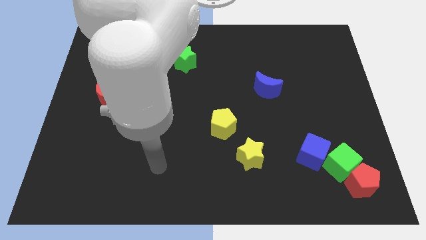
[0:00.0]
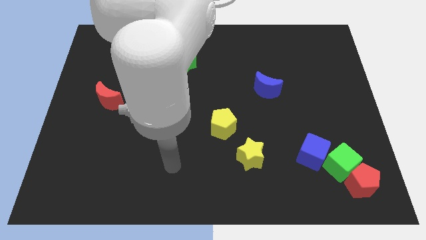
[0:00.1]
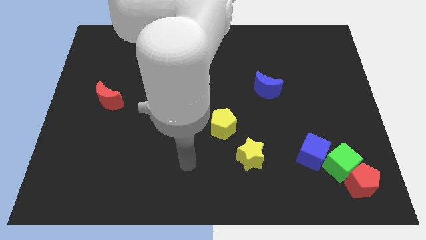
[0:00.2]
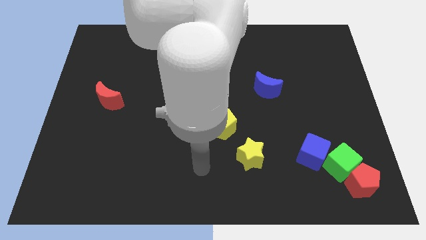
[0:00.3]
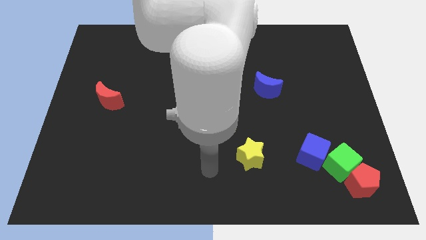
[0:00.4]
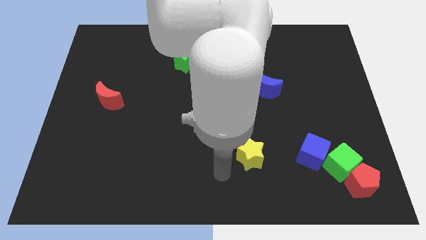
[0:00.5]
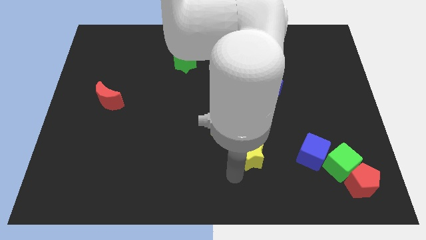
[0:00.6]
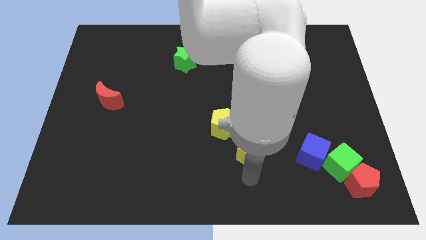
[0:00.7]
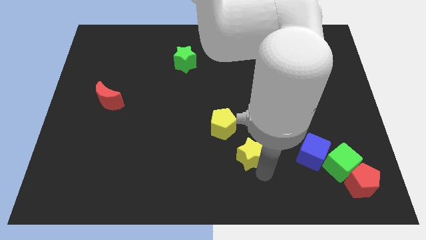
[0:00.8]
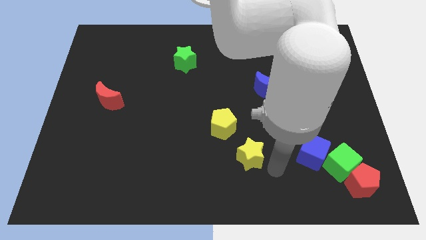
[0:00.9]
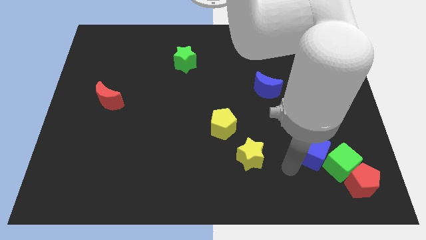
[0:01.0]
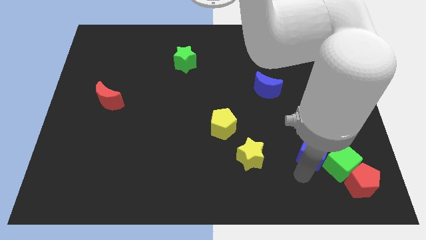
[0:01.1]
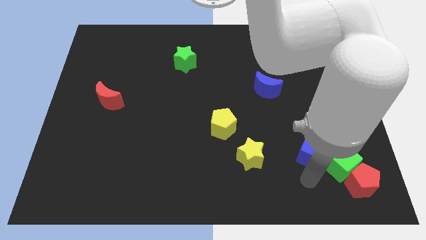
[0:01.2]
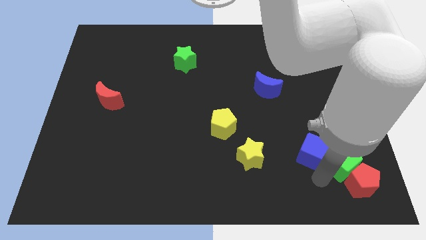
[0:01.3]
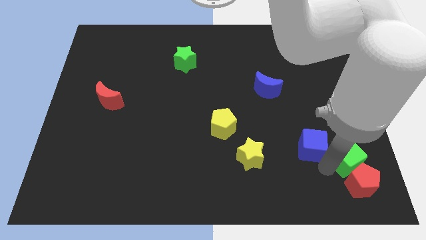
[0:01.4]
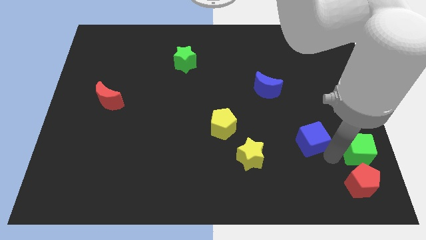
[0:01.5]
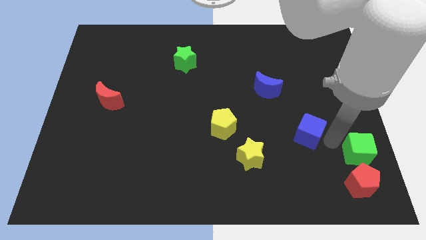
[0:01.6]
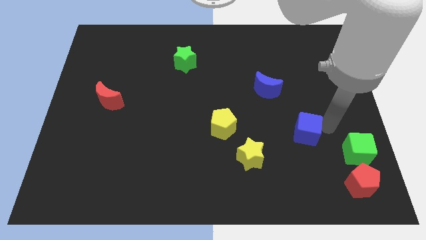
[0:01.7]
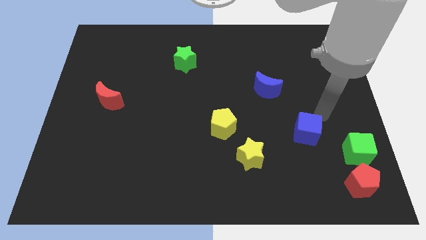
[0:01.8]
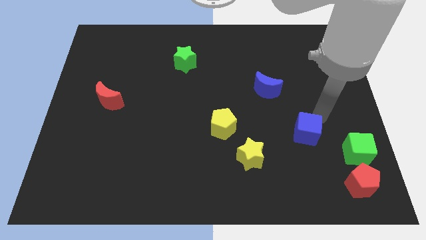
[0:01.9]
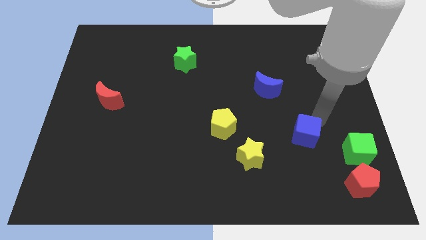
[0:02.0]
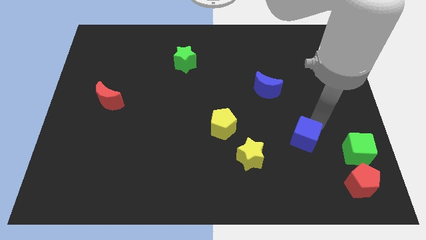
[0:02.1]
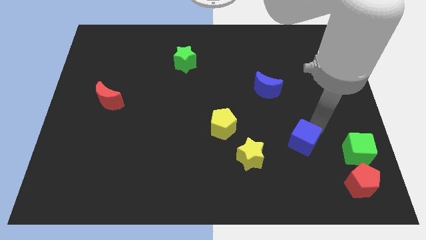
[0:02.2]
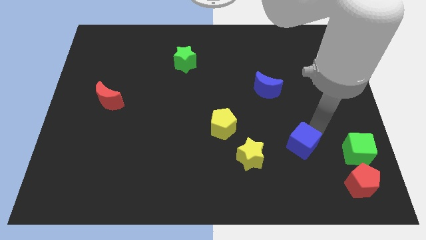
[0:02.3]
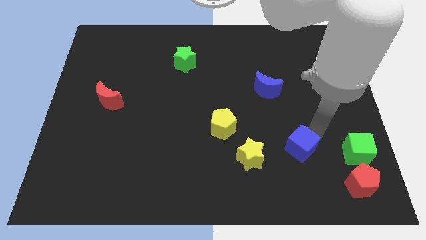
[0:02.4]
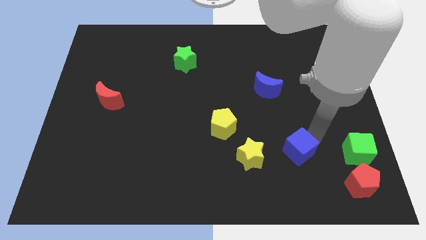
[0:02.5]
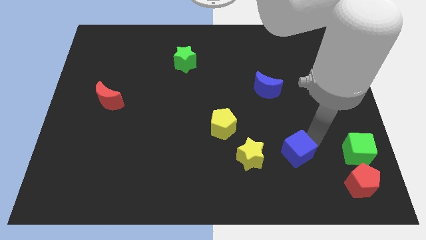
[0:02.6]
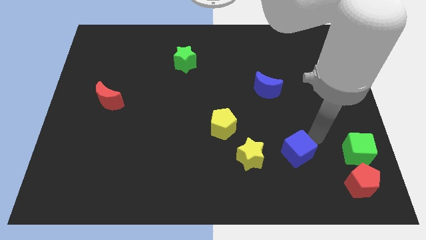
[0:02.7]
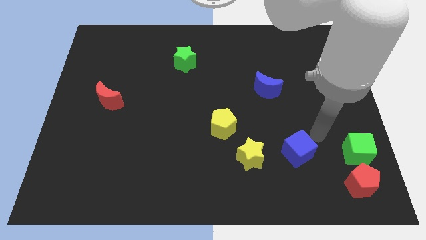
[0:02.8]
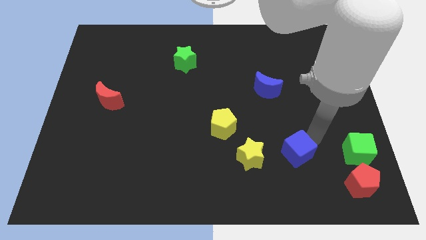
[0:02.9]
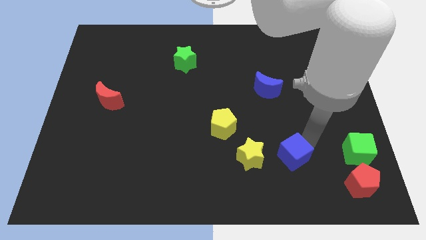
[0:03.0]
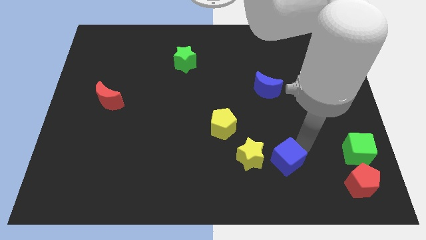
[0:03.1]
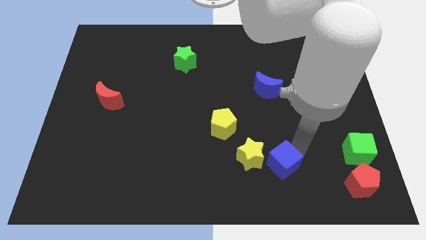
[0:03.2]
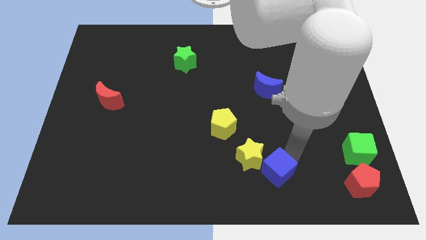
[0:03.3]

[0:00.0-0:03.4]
slide the blue cube left slightly

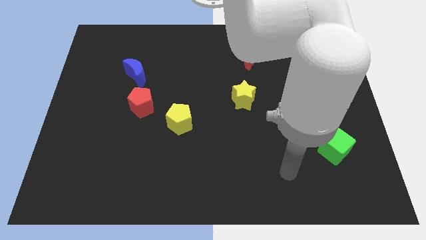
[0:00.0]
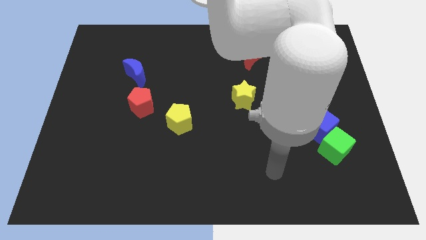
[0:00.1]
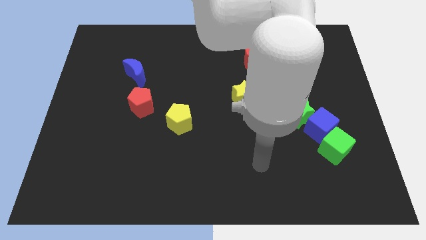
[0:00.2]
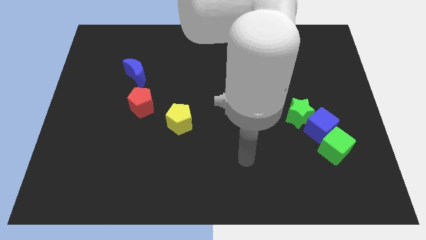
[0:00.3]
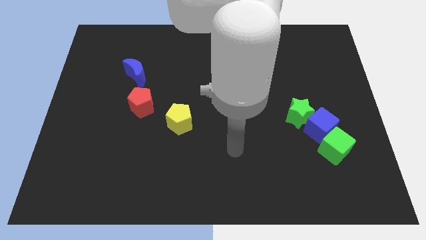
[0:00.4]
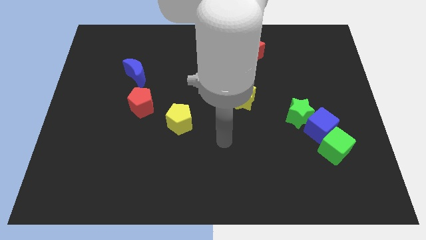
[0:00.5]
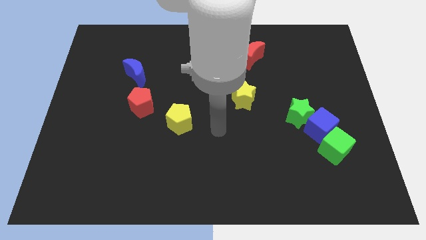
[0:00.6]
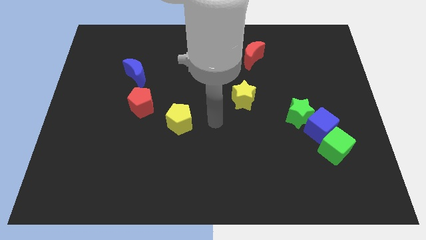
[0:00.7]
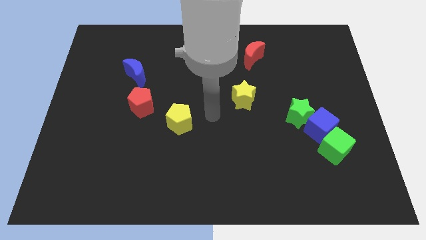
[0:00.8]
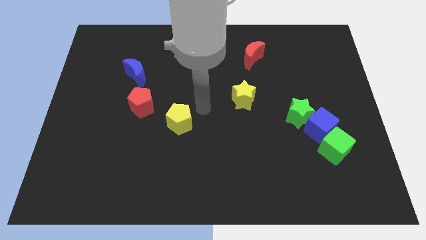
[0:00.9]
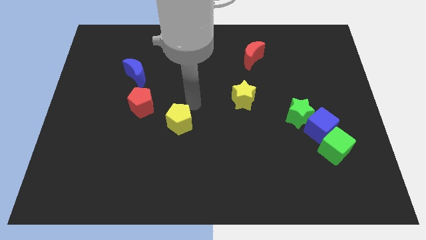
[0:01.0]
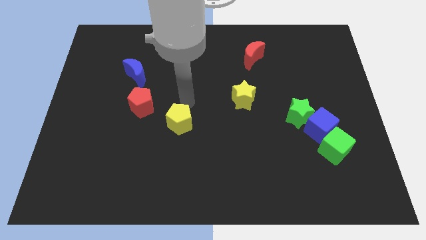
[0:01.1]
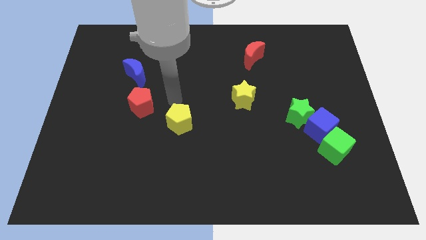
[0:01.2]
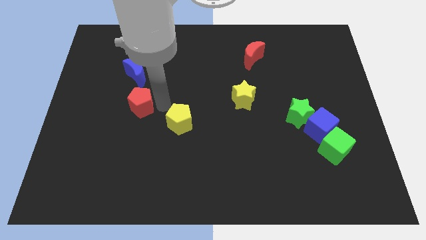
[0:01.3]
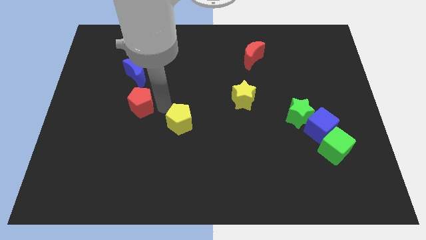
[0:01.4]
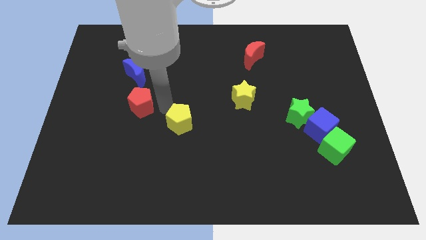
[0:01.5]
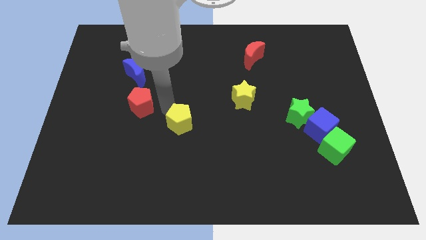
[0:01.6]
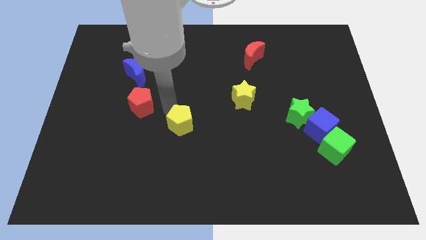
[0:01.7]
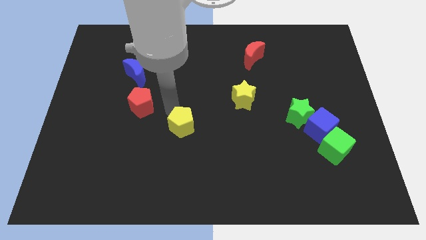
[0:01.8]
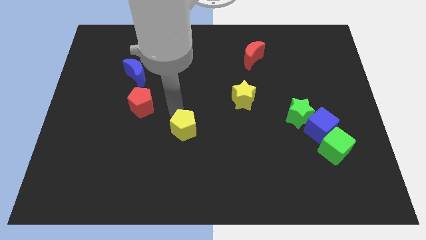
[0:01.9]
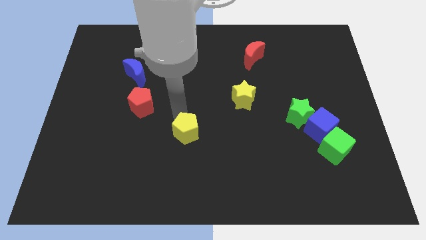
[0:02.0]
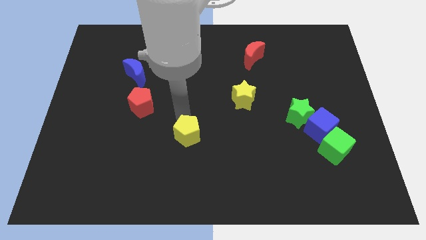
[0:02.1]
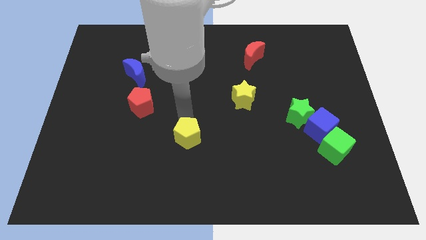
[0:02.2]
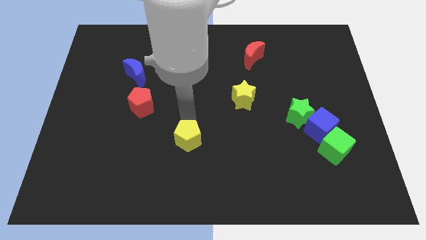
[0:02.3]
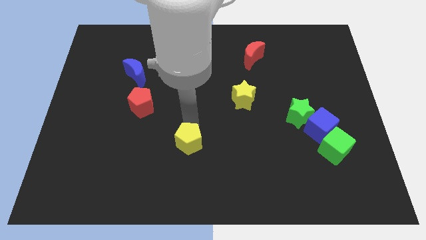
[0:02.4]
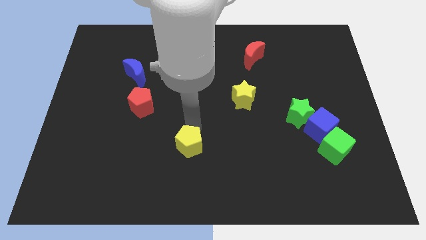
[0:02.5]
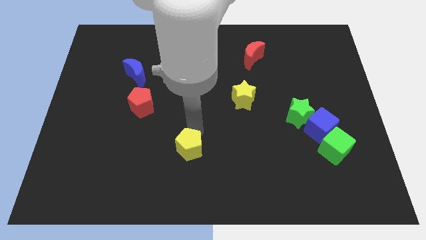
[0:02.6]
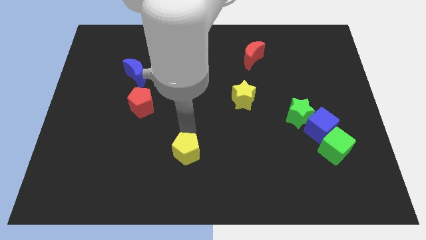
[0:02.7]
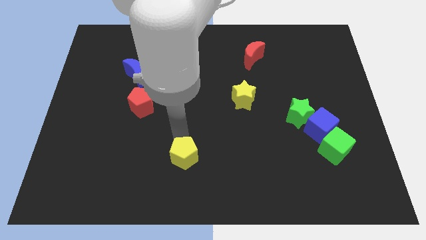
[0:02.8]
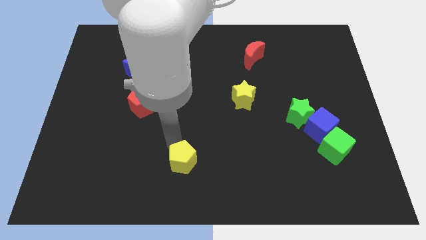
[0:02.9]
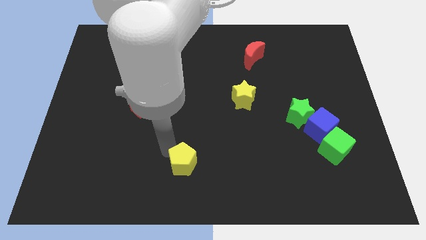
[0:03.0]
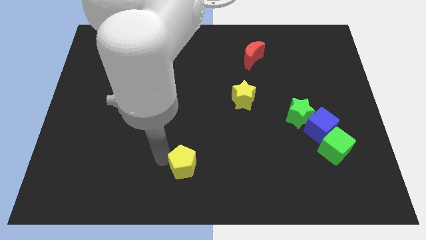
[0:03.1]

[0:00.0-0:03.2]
slightly move the yellow pentagon downwards and then right

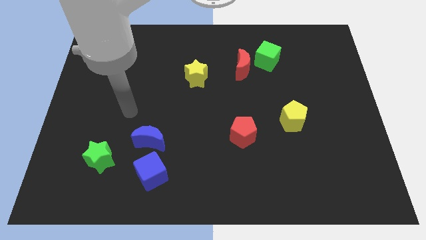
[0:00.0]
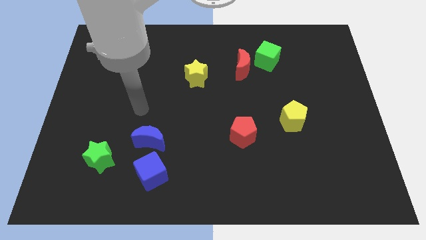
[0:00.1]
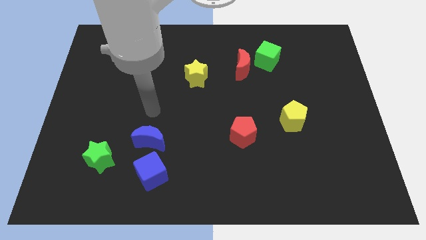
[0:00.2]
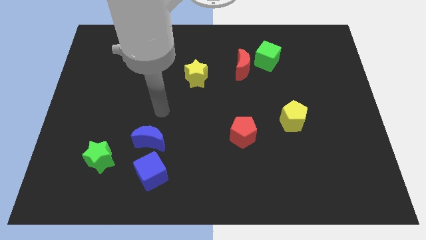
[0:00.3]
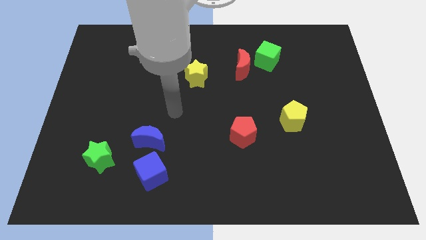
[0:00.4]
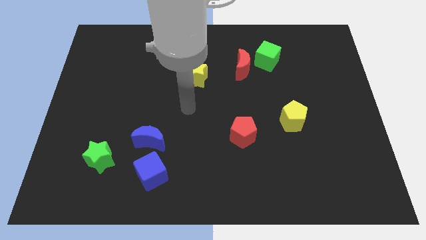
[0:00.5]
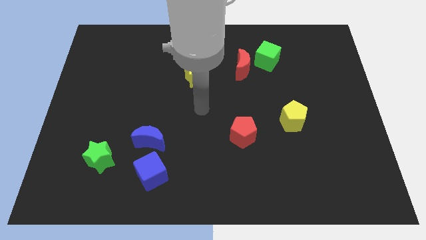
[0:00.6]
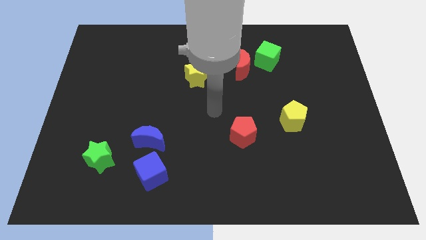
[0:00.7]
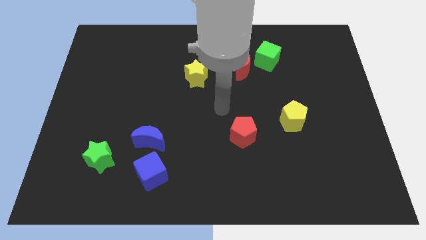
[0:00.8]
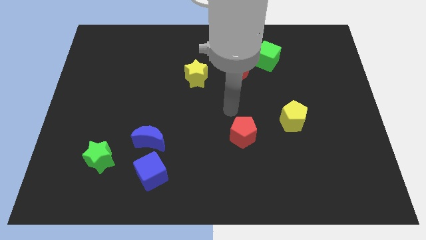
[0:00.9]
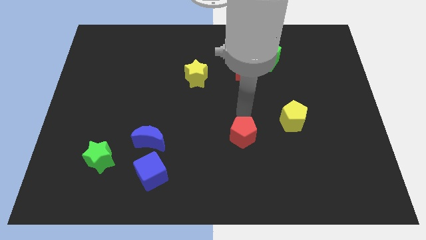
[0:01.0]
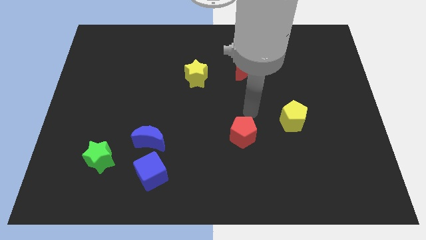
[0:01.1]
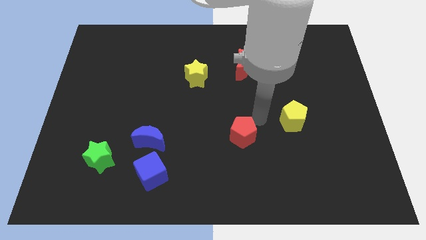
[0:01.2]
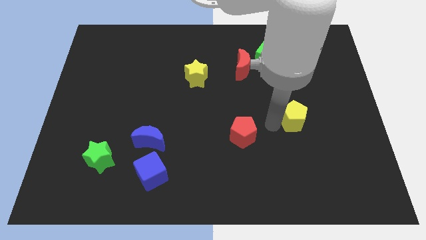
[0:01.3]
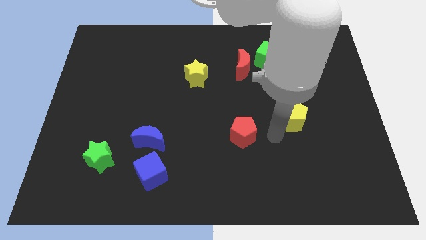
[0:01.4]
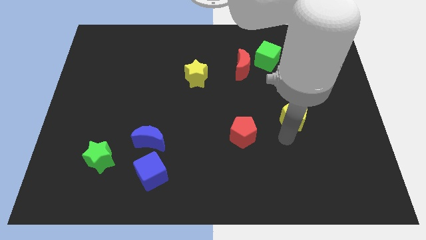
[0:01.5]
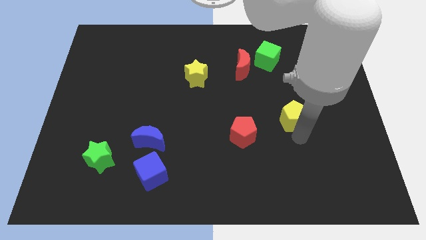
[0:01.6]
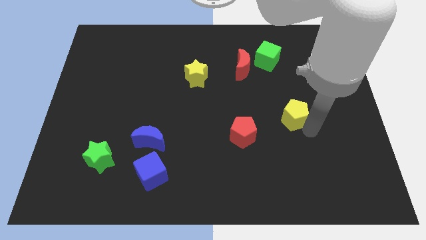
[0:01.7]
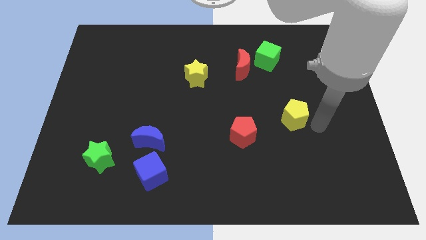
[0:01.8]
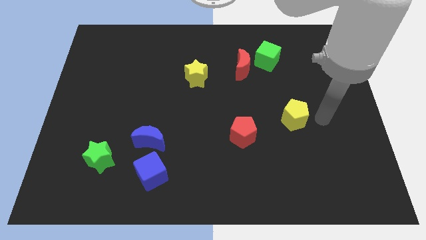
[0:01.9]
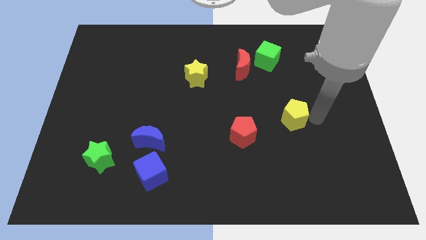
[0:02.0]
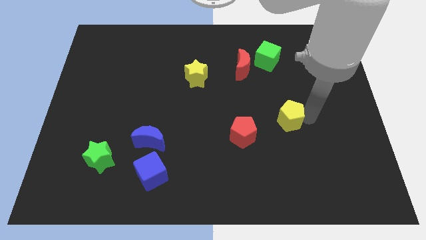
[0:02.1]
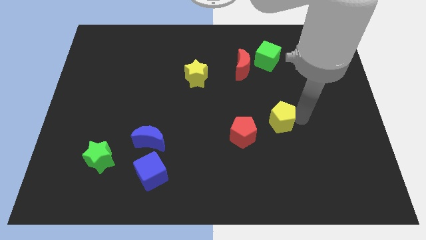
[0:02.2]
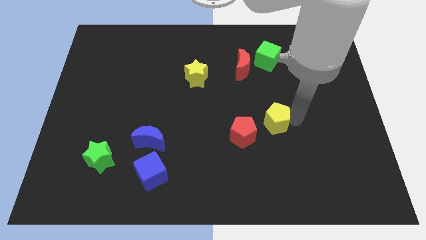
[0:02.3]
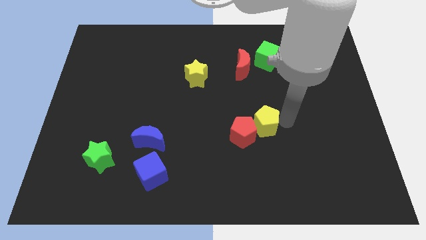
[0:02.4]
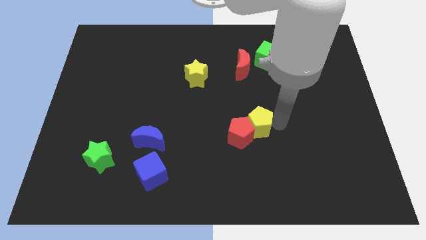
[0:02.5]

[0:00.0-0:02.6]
push the yellow pentagon left a little
